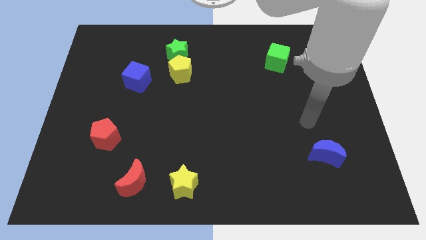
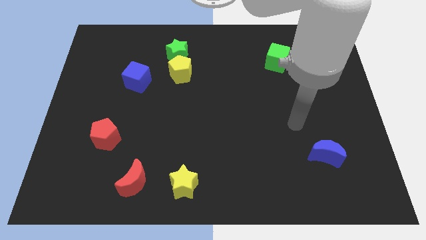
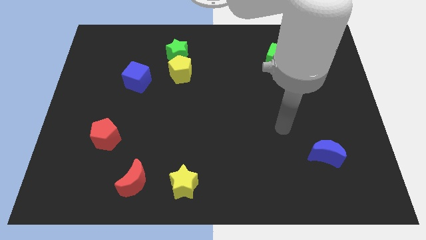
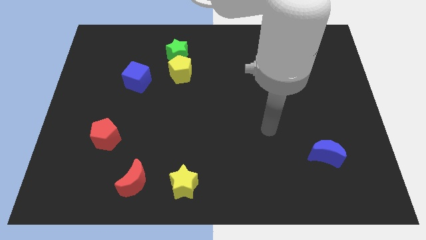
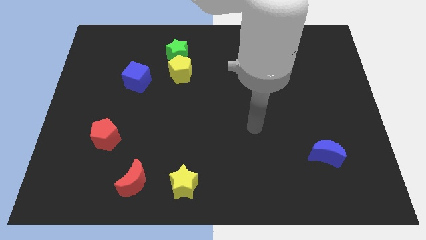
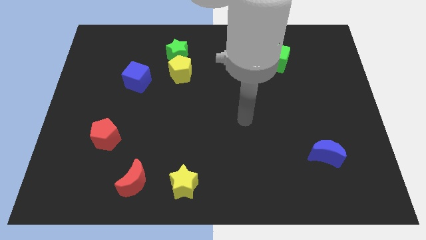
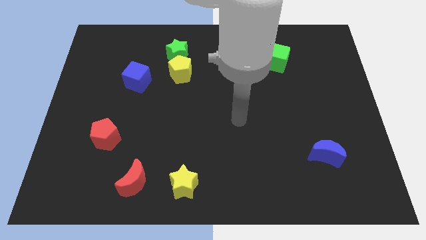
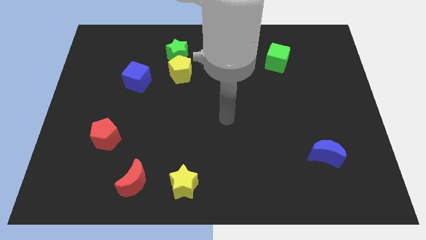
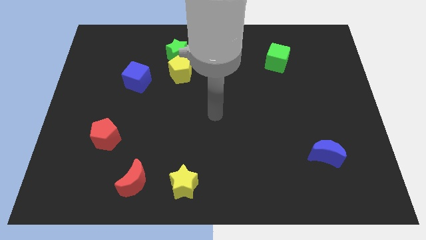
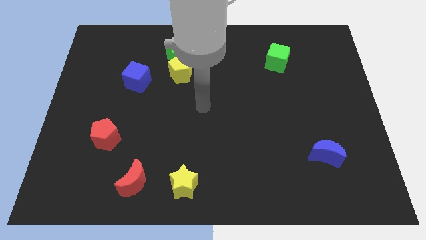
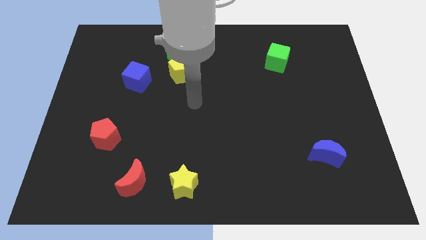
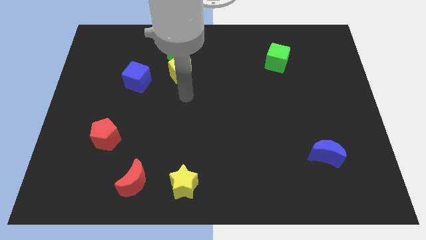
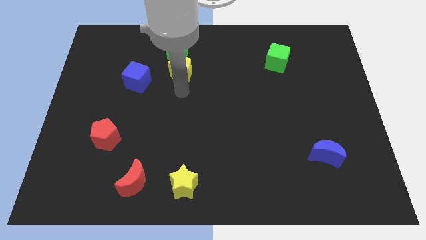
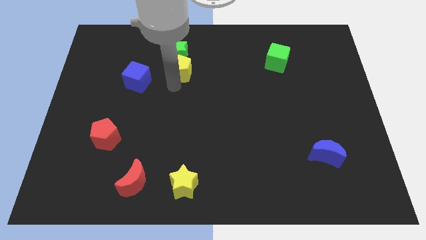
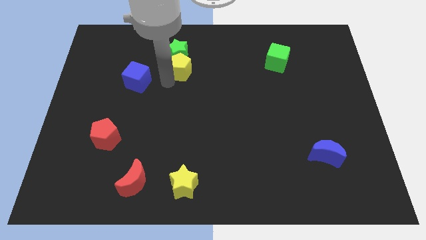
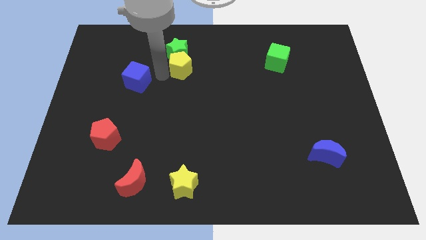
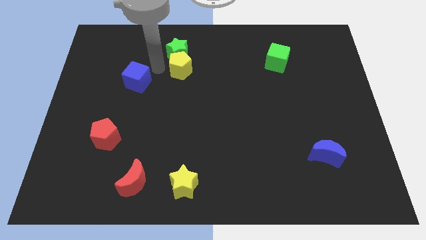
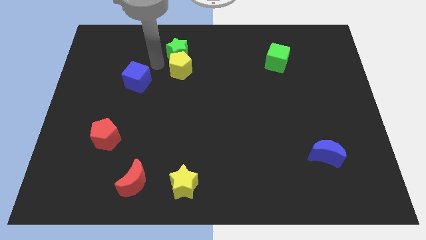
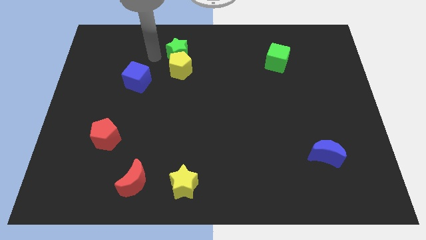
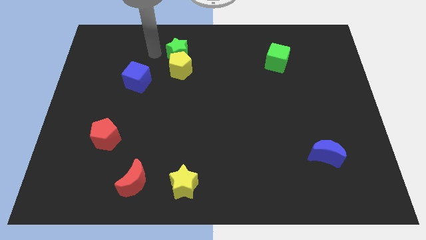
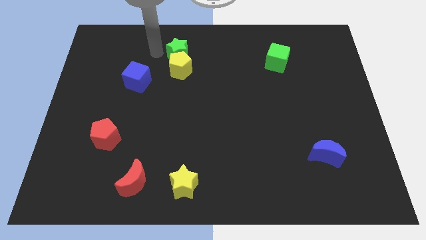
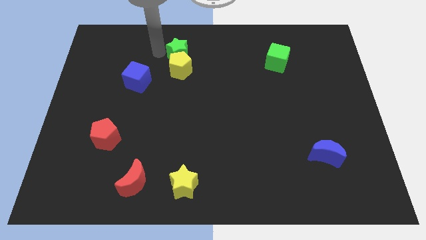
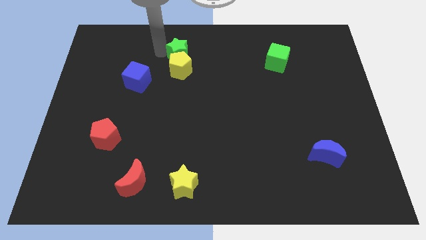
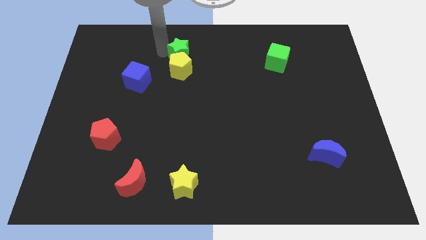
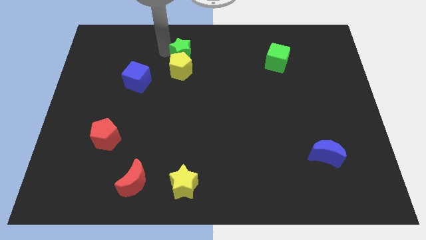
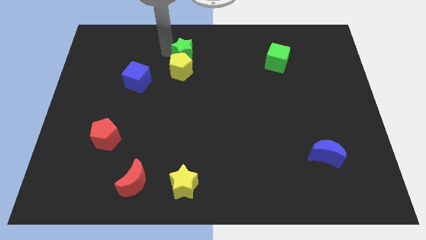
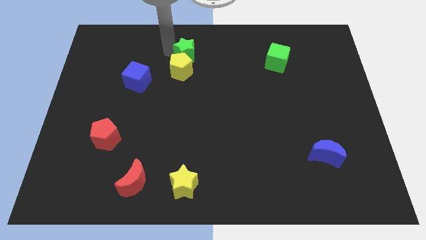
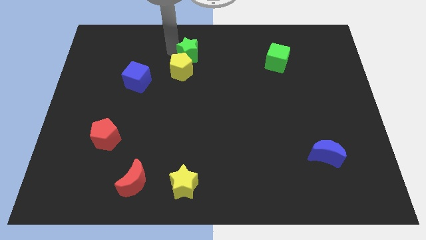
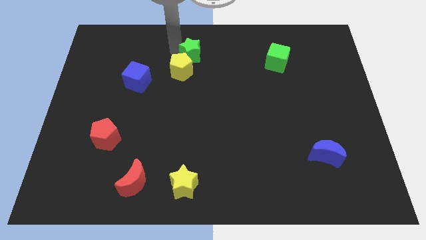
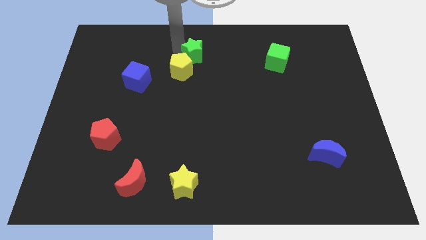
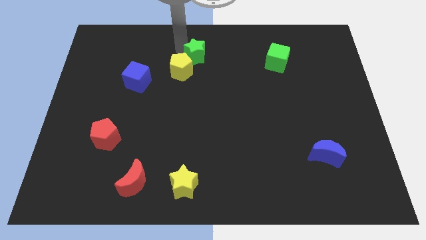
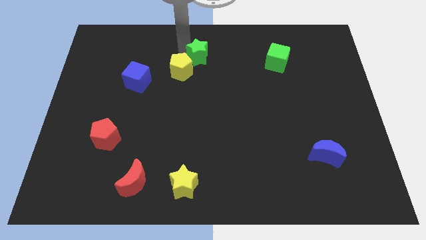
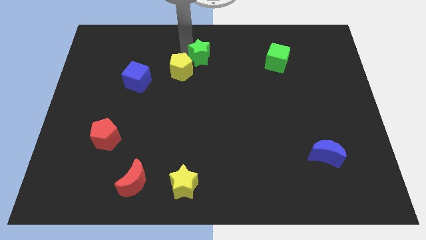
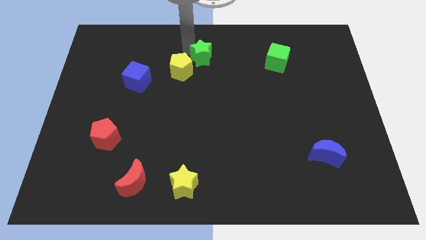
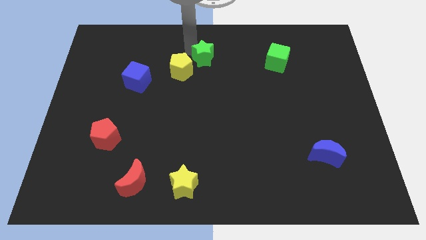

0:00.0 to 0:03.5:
slide the green star slightly to the right

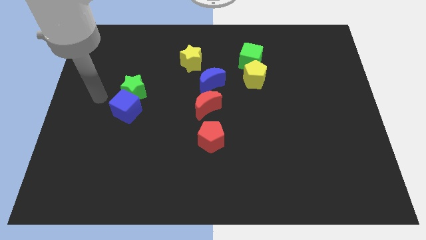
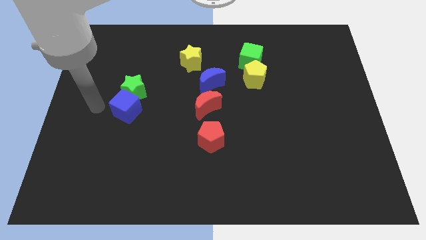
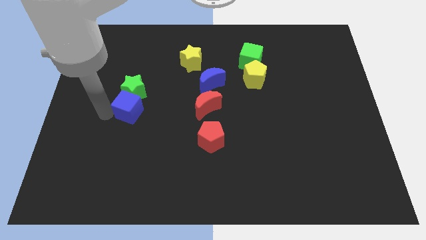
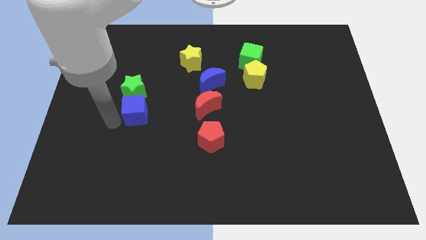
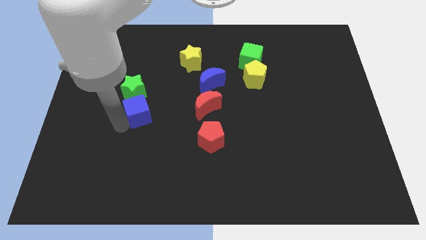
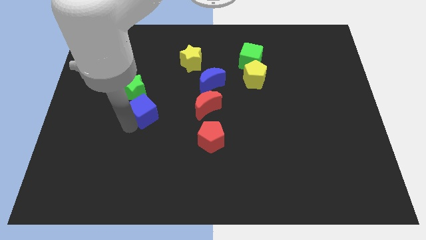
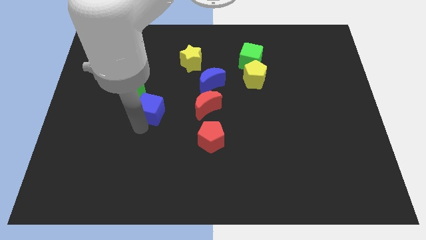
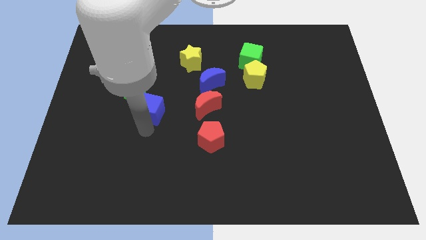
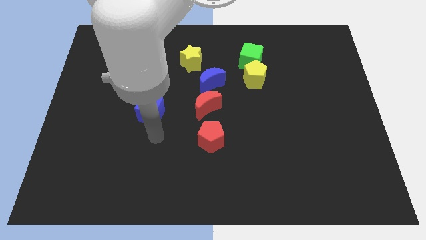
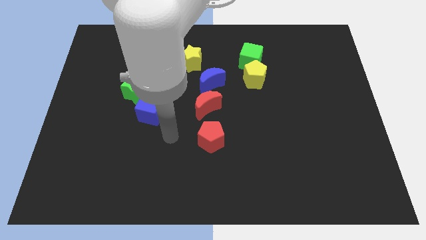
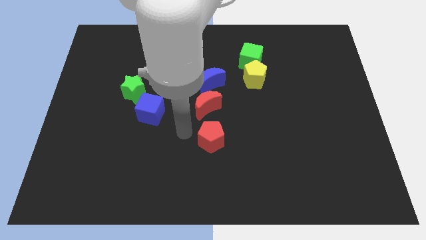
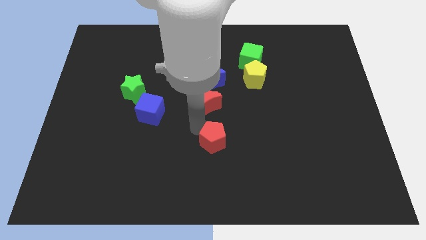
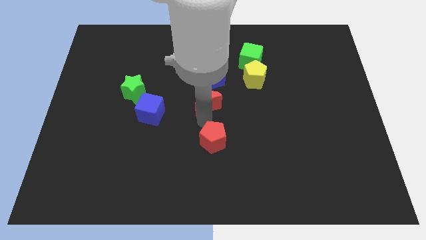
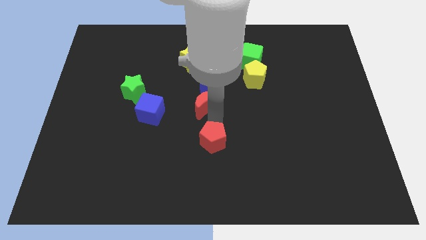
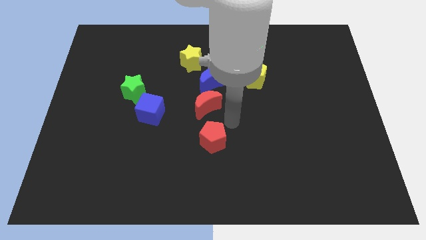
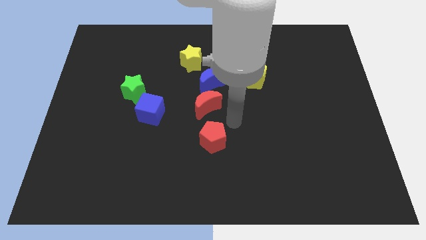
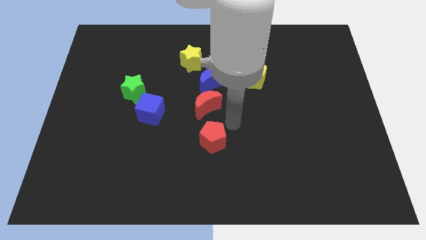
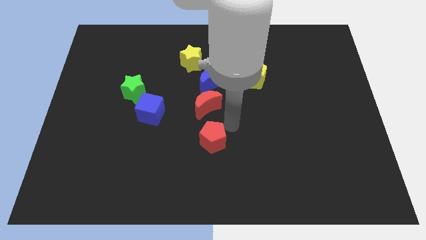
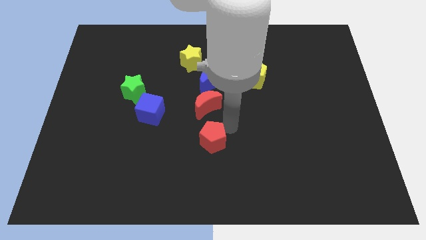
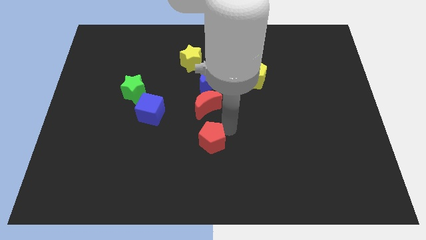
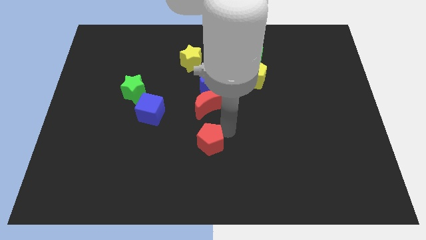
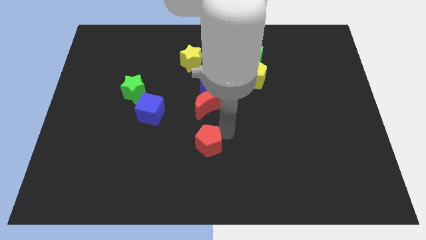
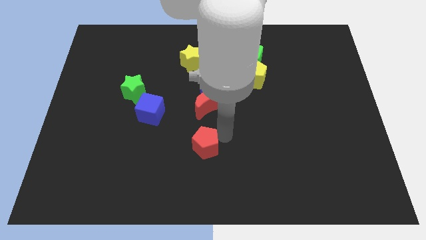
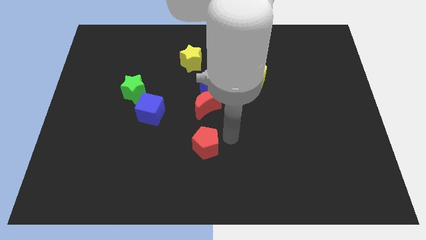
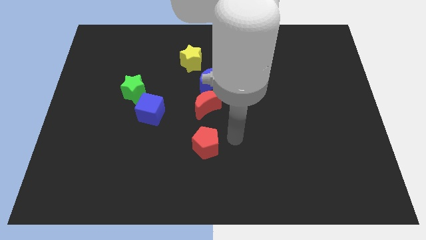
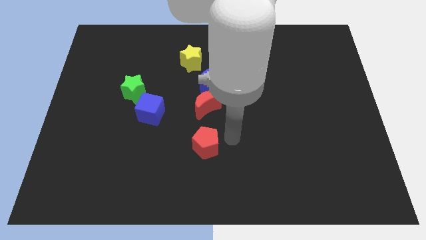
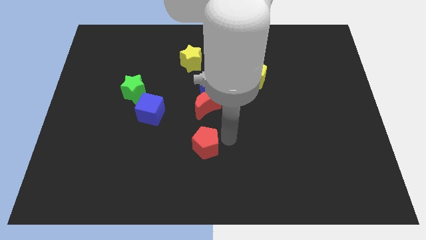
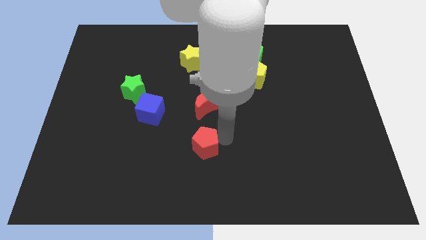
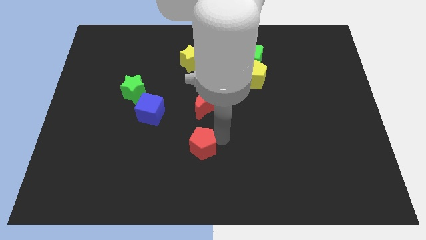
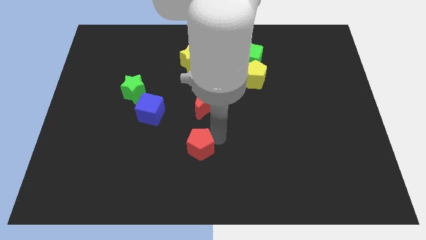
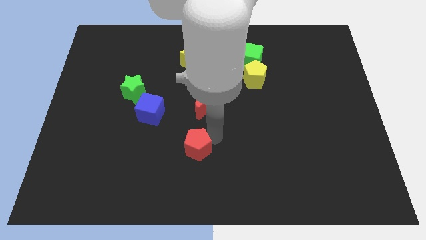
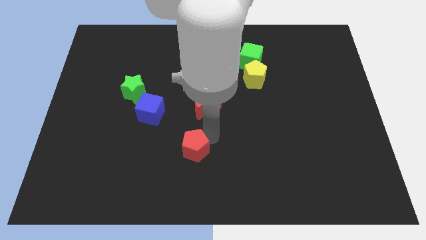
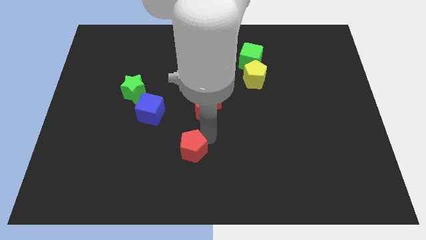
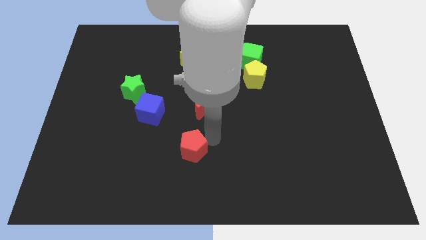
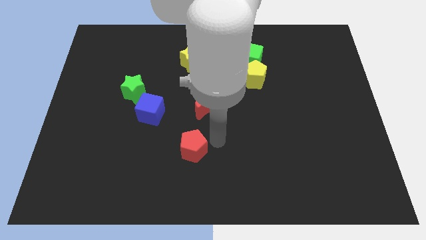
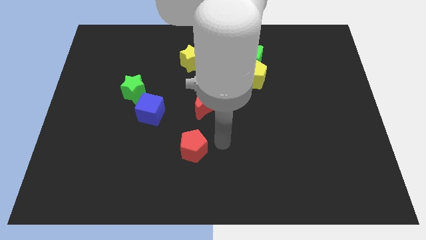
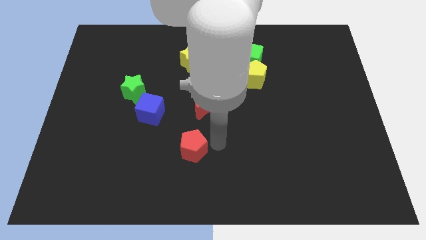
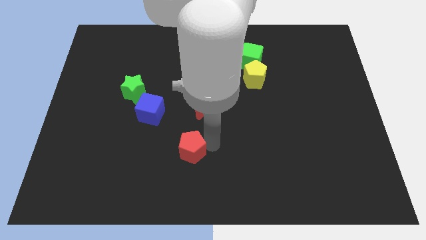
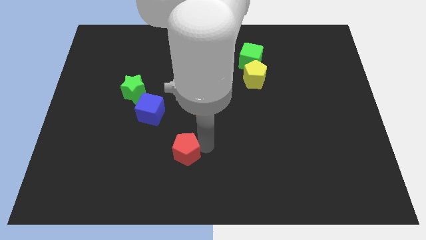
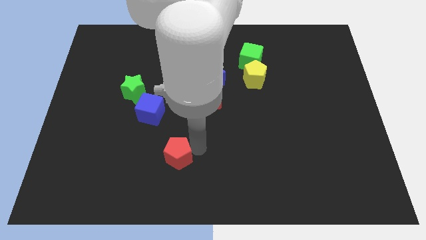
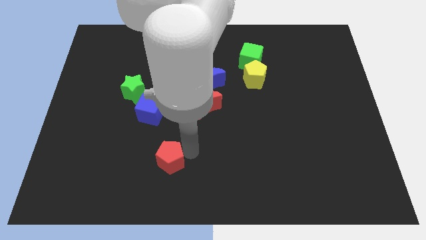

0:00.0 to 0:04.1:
slide the red pentagon a bit to the left

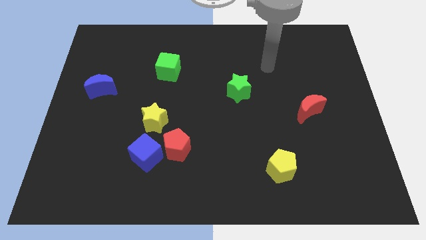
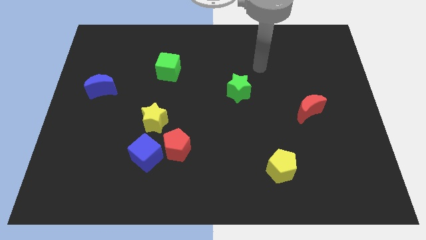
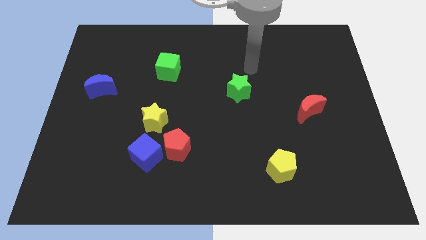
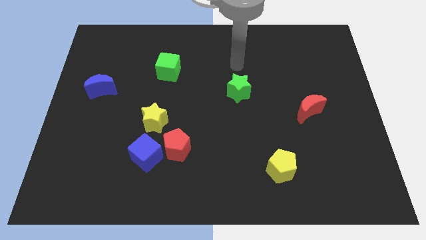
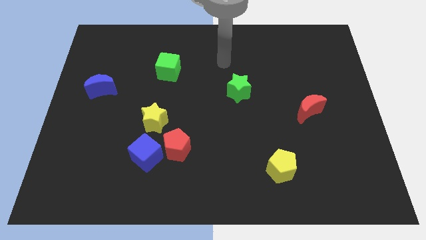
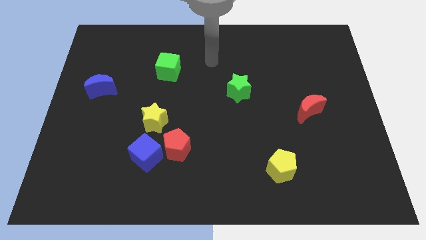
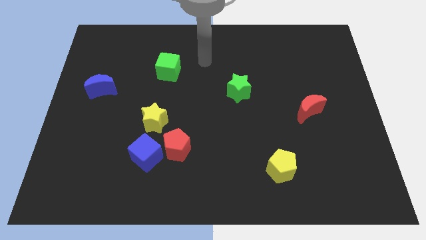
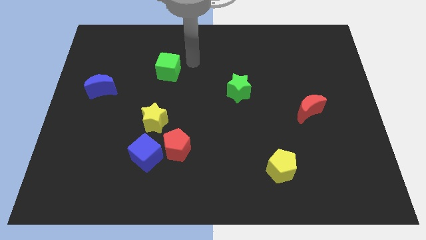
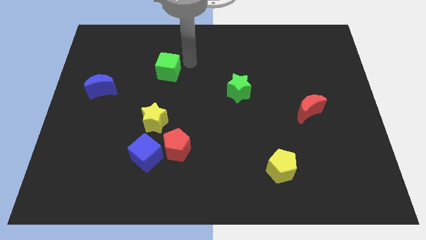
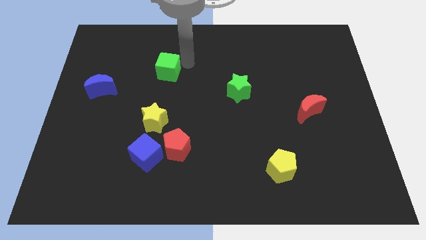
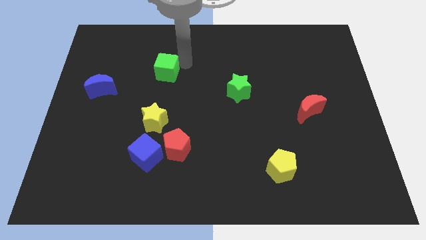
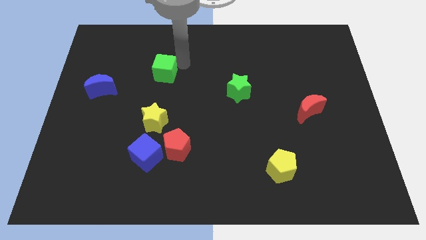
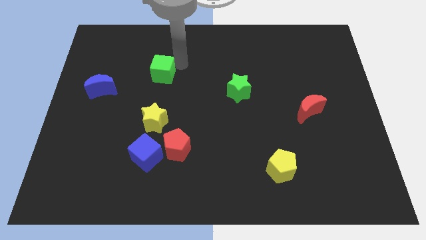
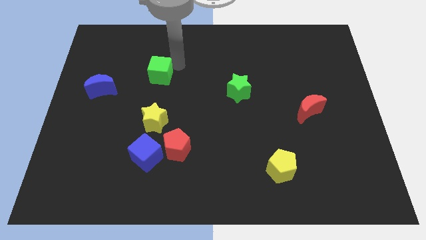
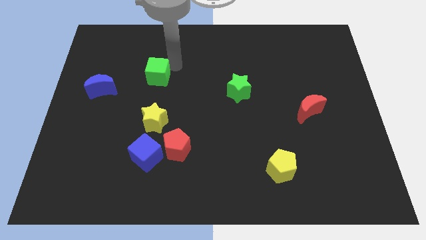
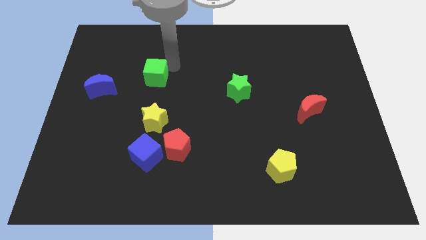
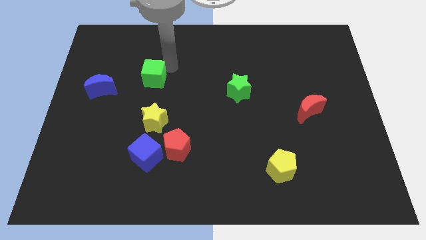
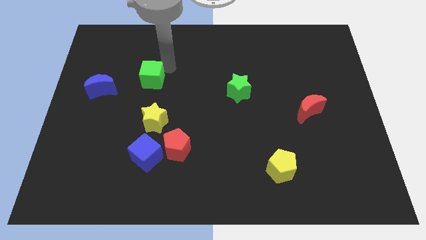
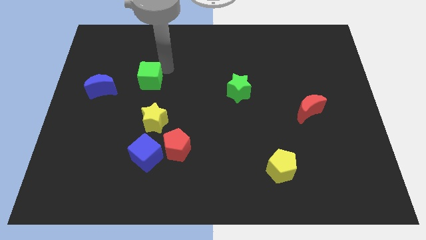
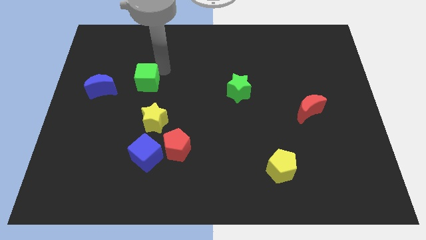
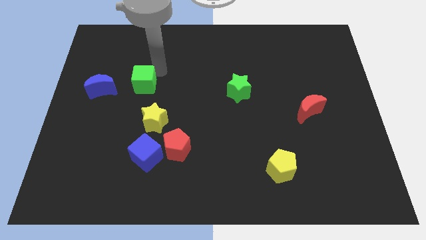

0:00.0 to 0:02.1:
slightly move the green cube downwards and to the left diagonally
